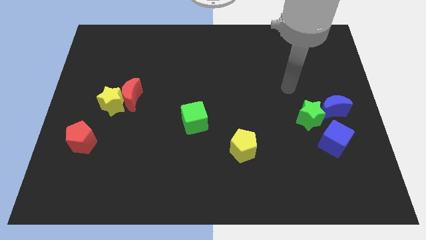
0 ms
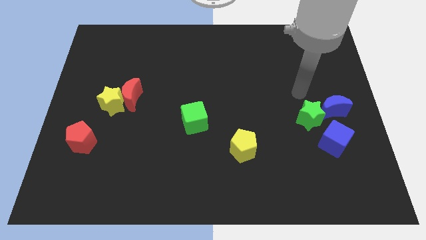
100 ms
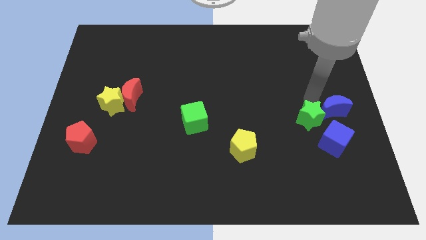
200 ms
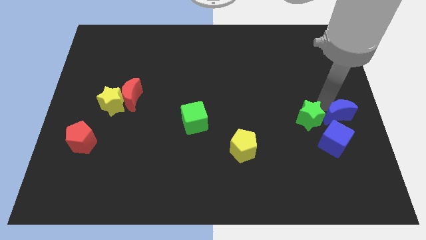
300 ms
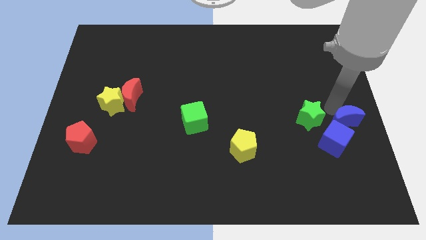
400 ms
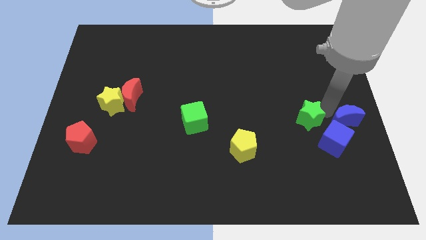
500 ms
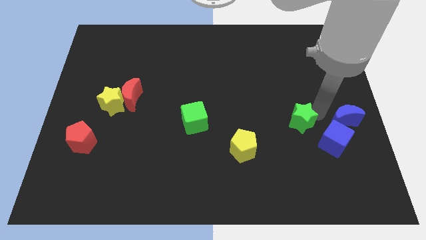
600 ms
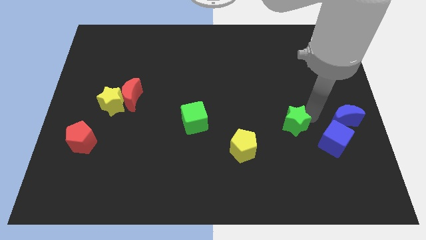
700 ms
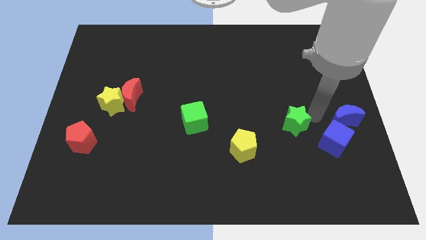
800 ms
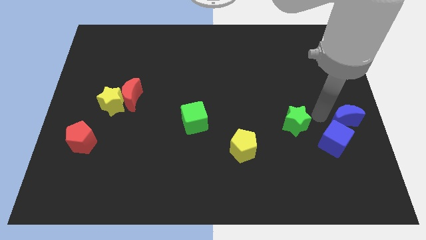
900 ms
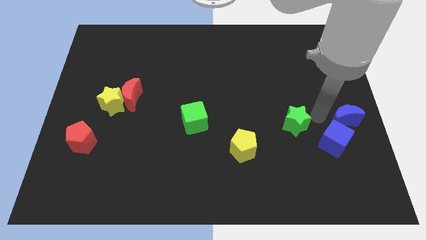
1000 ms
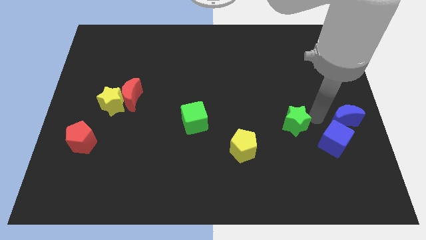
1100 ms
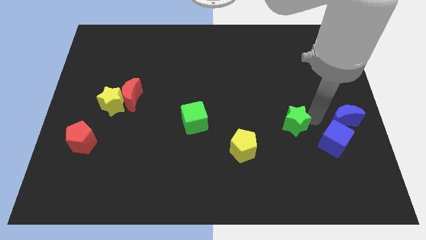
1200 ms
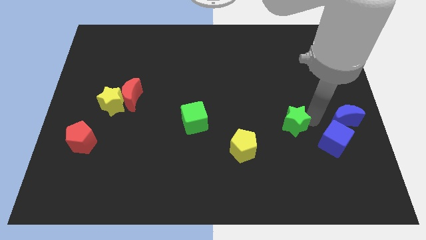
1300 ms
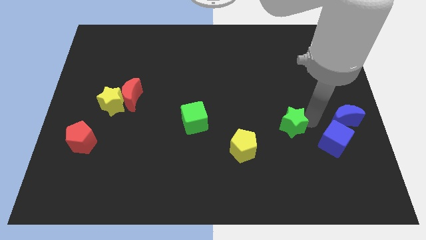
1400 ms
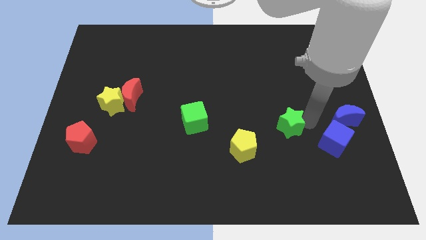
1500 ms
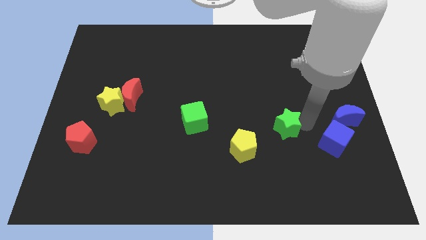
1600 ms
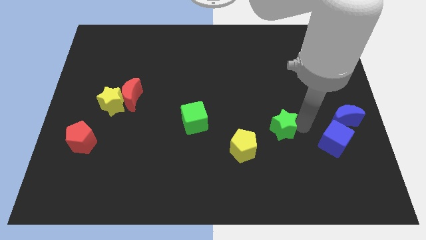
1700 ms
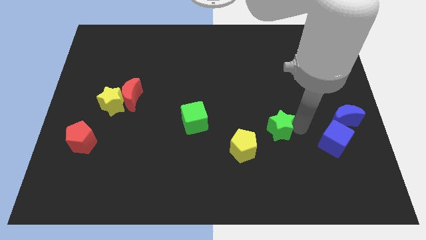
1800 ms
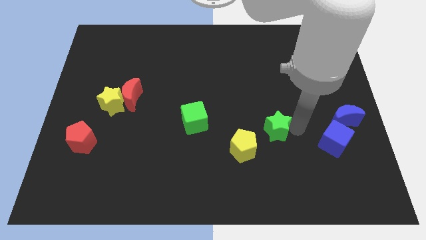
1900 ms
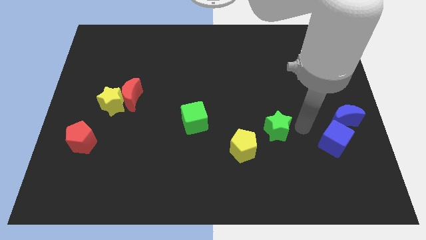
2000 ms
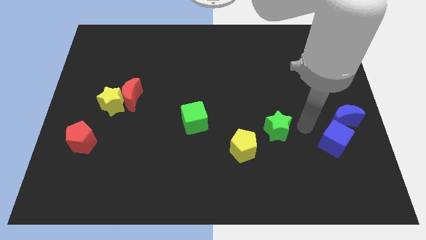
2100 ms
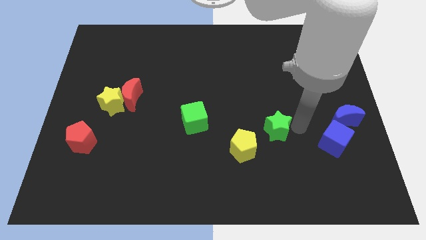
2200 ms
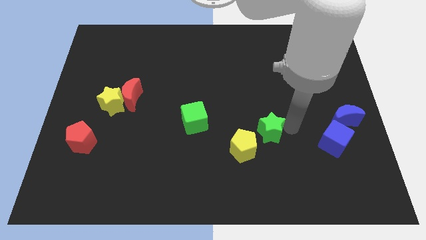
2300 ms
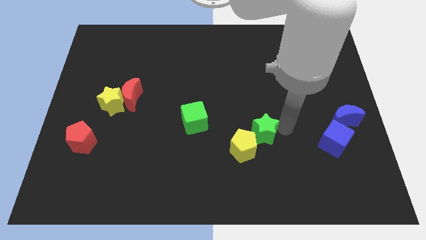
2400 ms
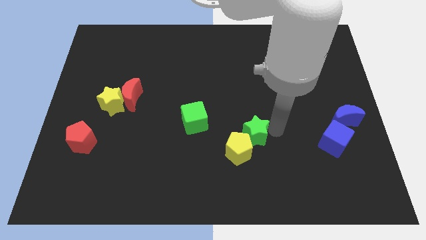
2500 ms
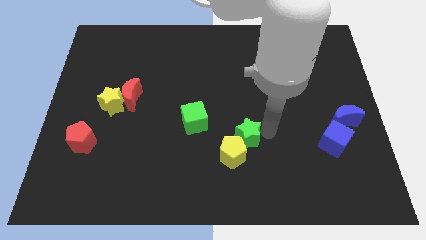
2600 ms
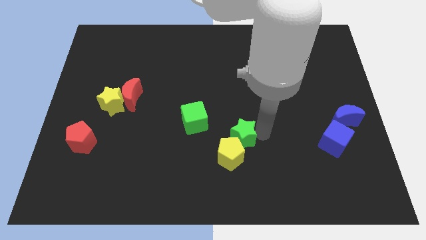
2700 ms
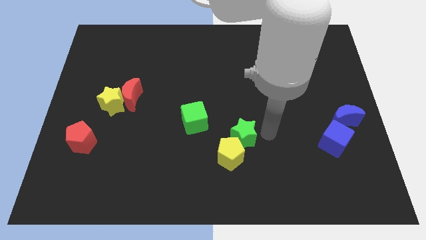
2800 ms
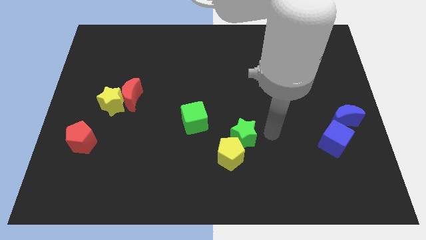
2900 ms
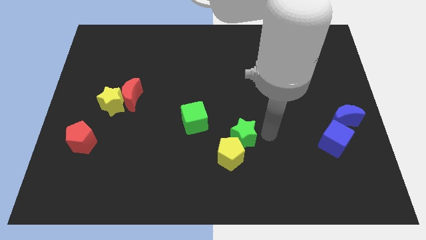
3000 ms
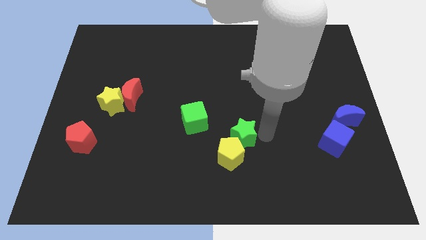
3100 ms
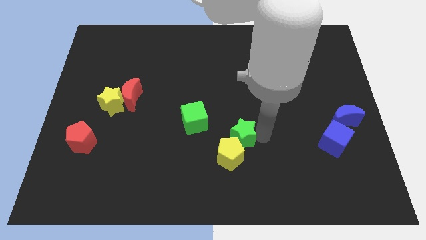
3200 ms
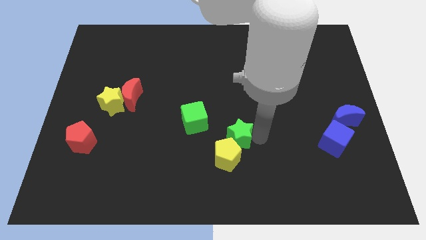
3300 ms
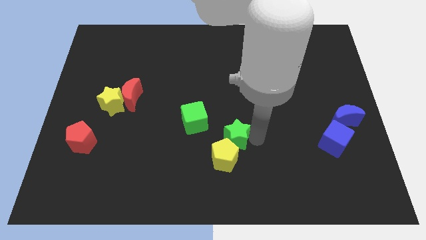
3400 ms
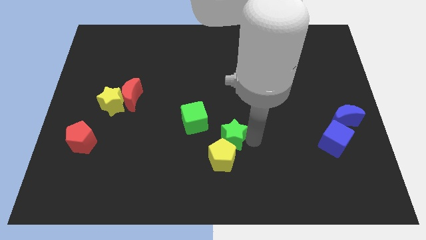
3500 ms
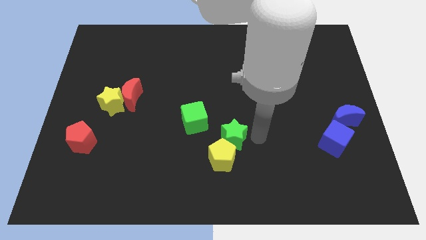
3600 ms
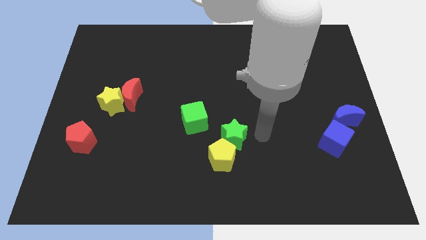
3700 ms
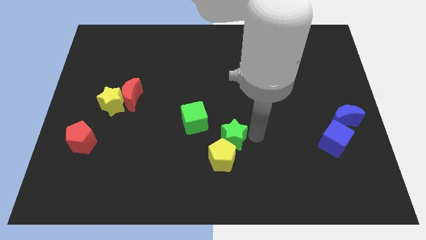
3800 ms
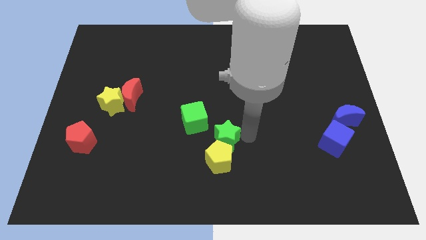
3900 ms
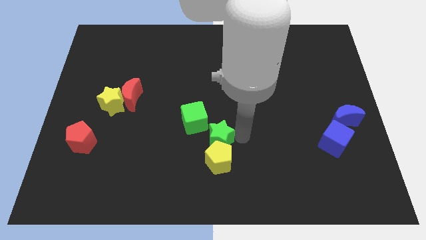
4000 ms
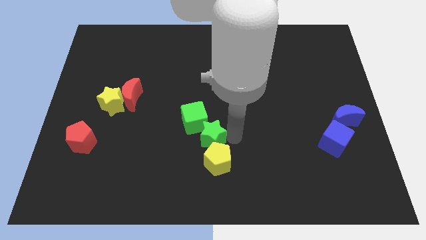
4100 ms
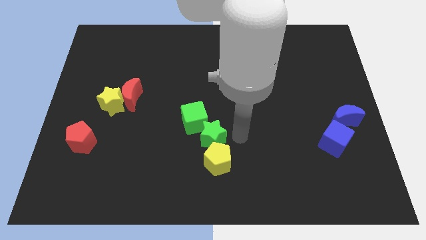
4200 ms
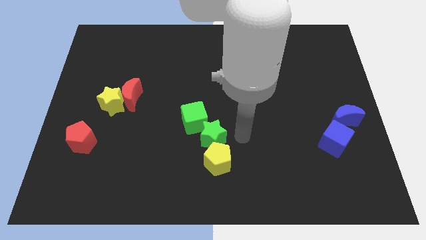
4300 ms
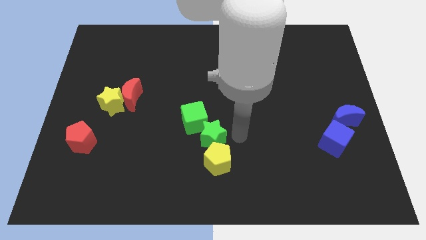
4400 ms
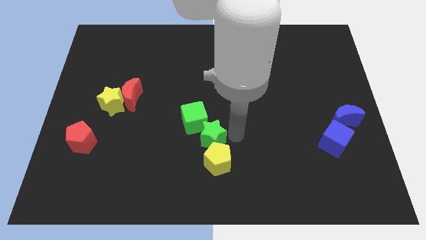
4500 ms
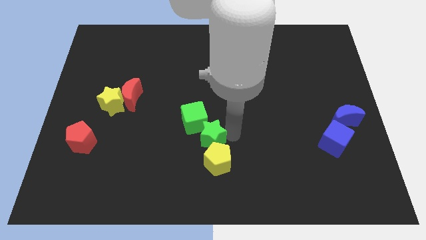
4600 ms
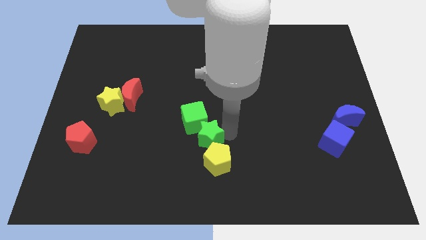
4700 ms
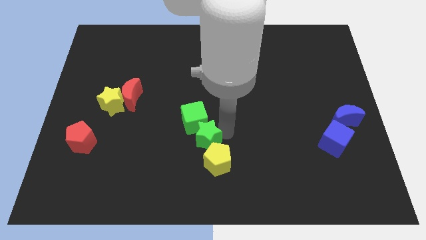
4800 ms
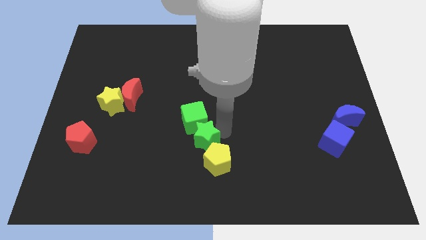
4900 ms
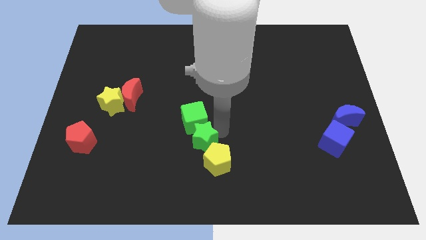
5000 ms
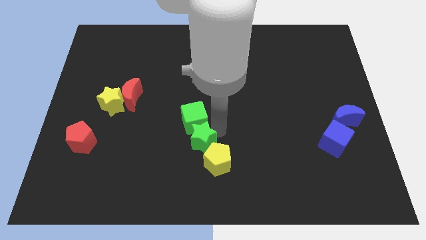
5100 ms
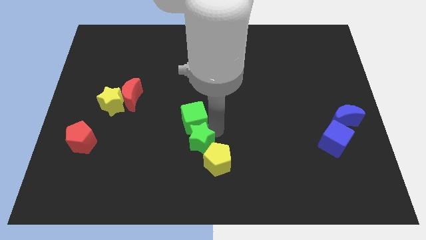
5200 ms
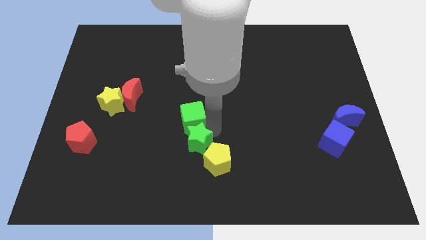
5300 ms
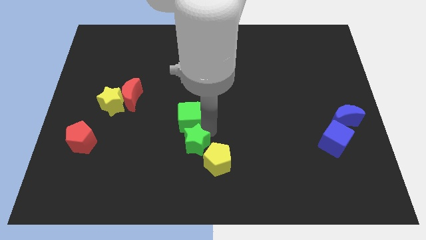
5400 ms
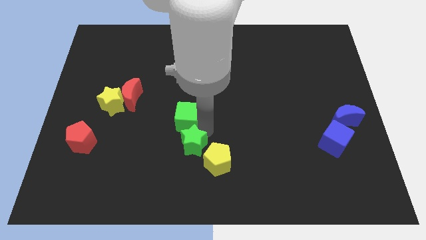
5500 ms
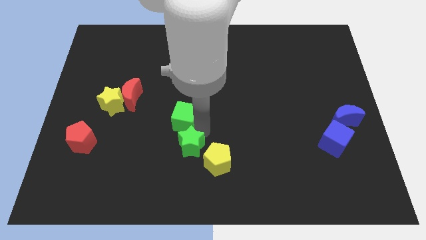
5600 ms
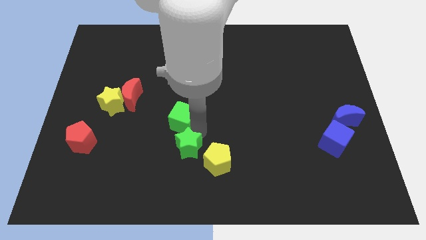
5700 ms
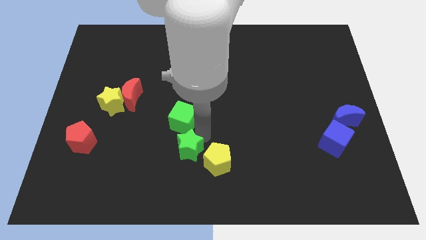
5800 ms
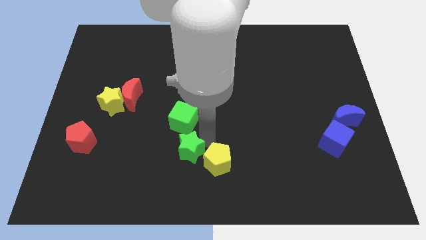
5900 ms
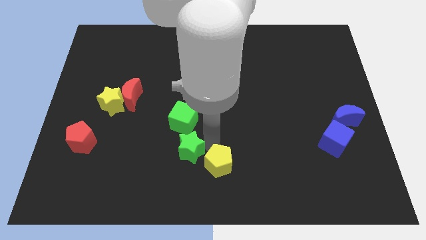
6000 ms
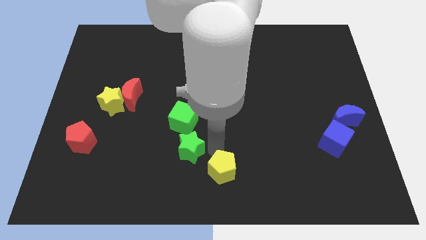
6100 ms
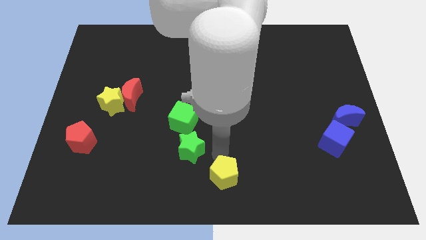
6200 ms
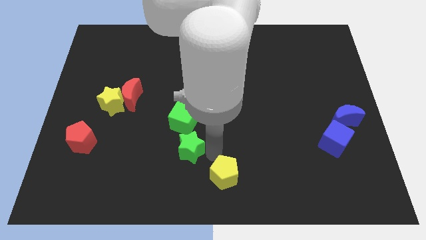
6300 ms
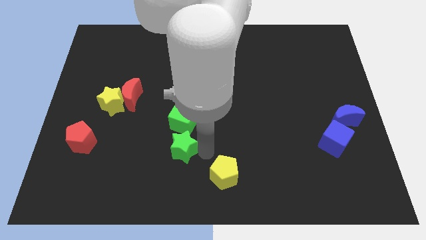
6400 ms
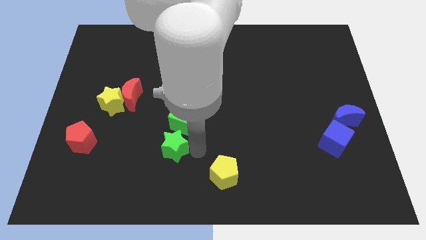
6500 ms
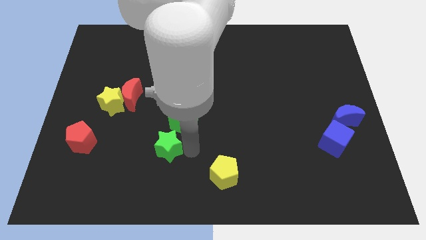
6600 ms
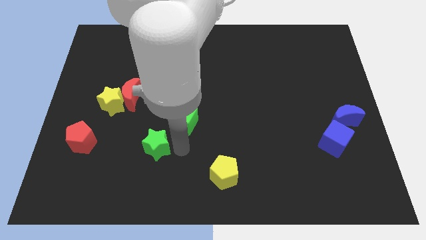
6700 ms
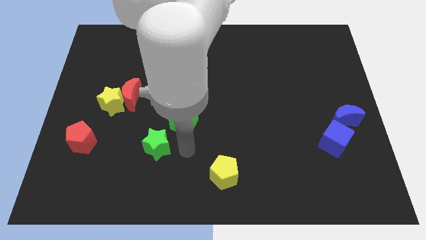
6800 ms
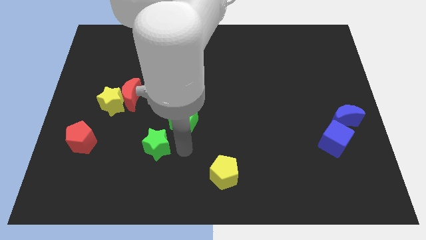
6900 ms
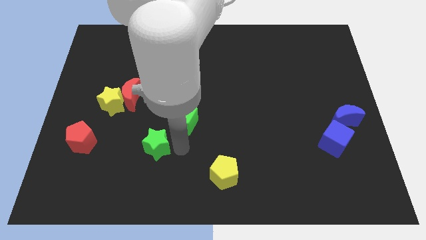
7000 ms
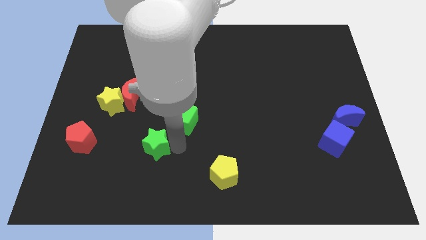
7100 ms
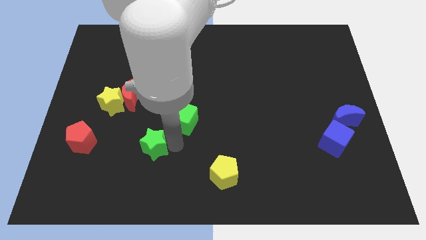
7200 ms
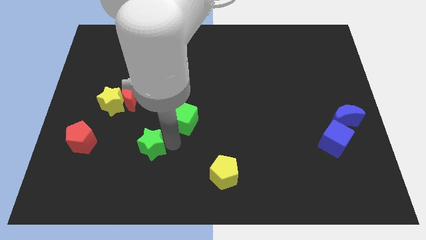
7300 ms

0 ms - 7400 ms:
push the green star to the right side of the red pentagon
